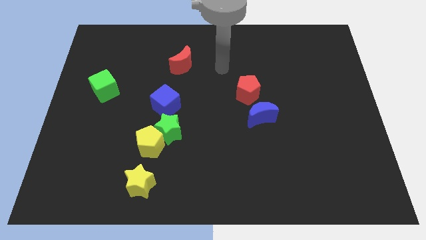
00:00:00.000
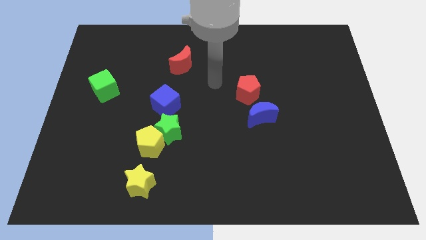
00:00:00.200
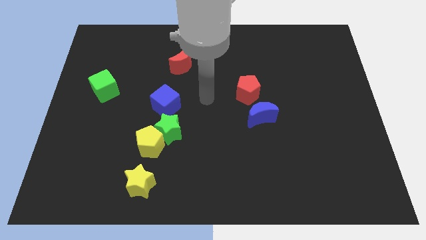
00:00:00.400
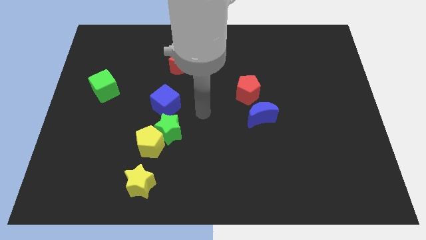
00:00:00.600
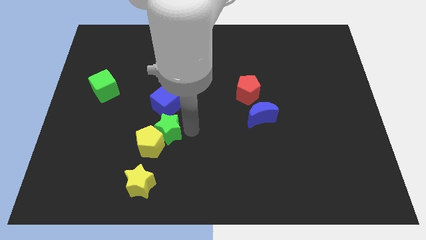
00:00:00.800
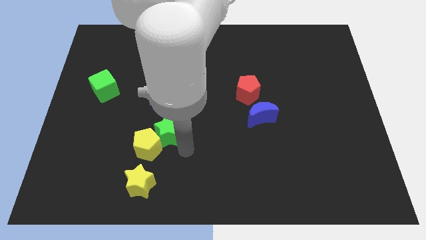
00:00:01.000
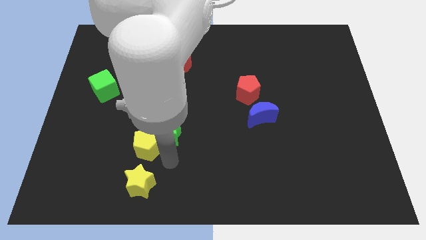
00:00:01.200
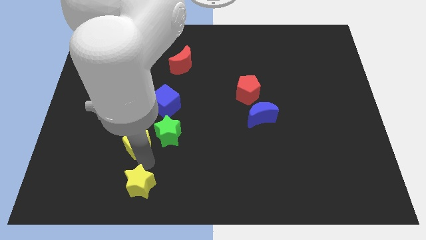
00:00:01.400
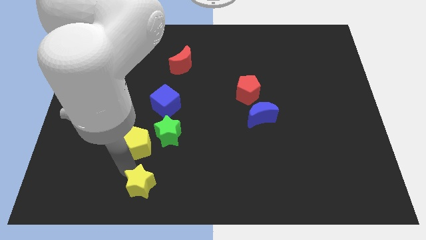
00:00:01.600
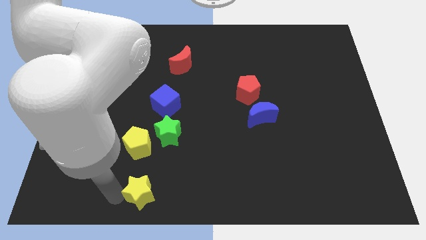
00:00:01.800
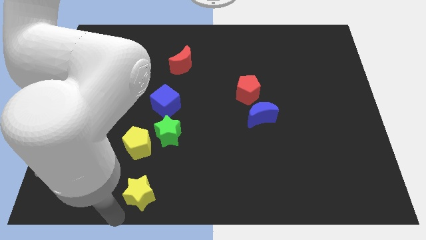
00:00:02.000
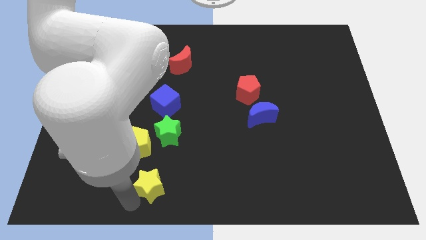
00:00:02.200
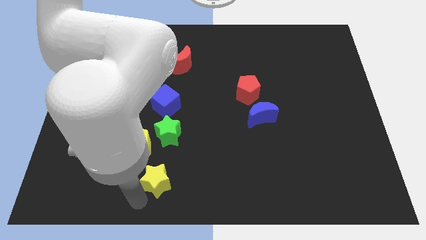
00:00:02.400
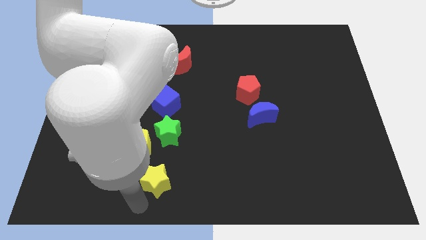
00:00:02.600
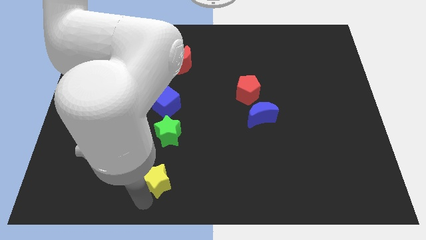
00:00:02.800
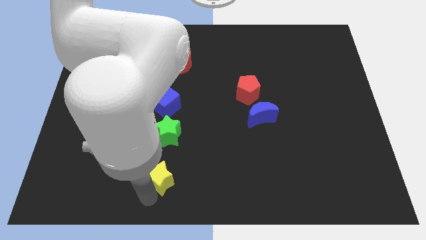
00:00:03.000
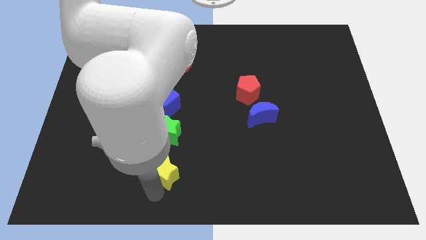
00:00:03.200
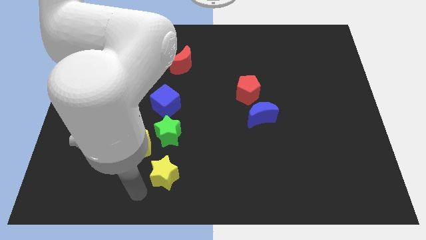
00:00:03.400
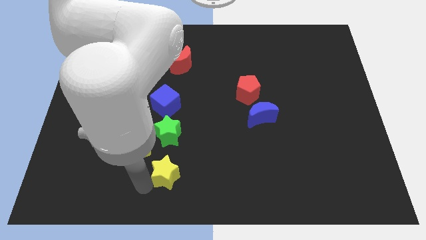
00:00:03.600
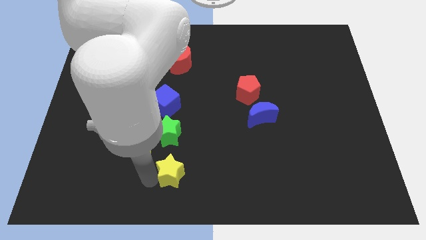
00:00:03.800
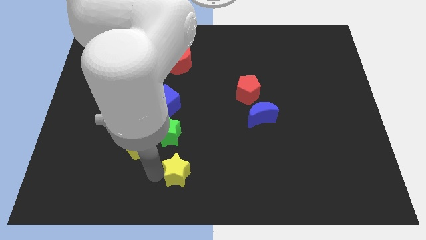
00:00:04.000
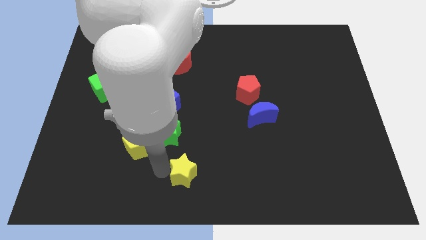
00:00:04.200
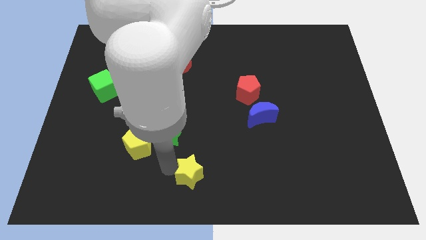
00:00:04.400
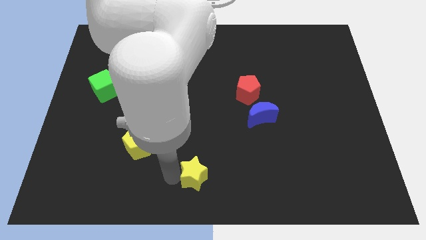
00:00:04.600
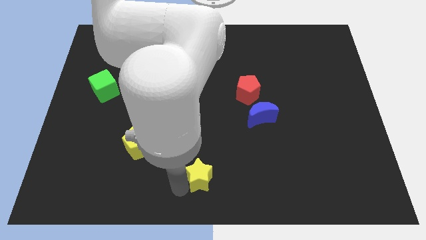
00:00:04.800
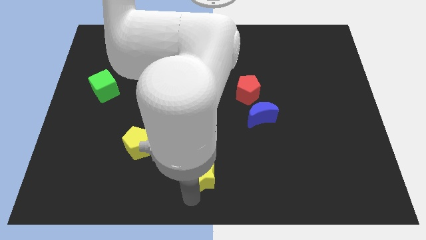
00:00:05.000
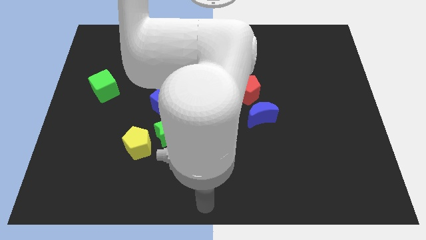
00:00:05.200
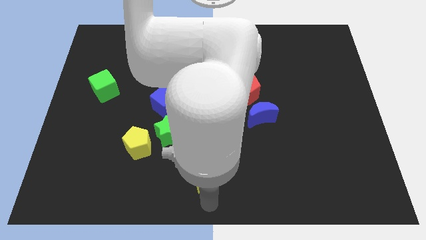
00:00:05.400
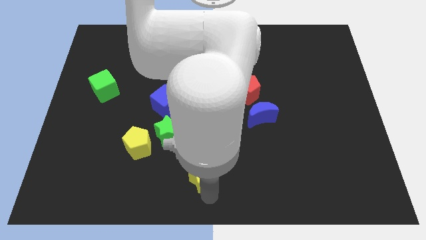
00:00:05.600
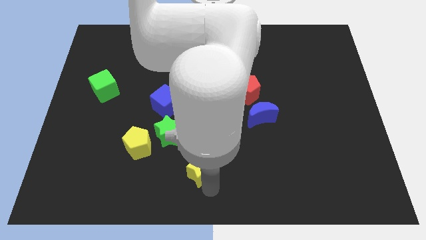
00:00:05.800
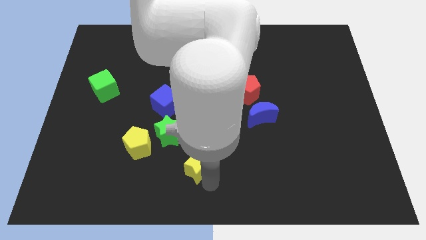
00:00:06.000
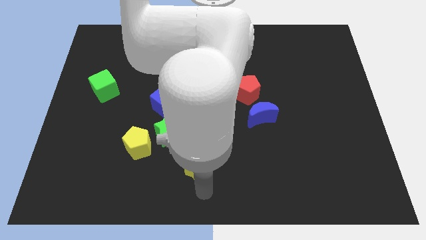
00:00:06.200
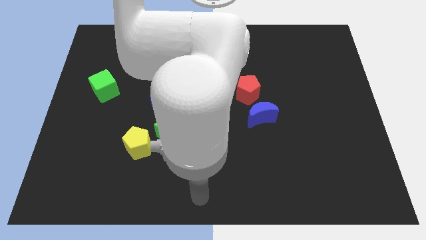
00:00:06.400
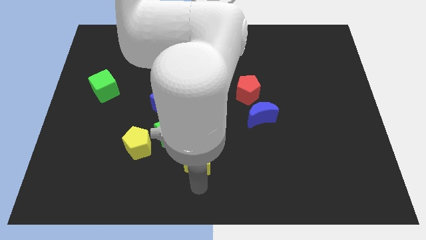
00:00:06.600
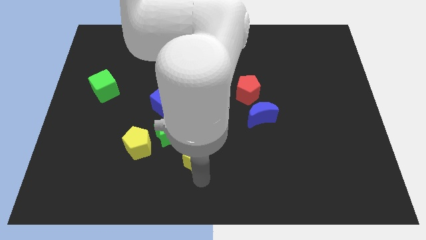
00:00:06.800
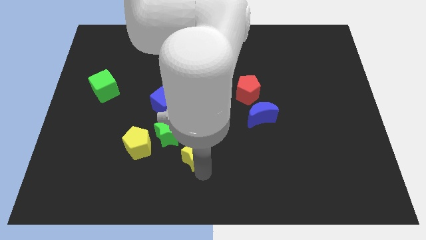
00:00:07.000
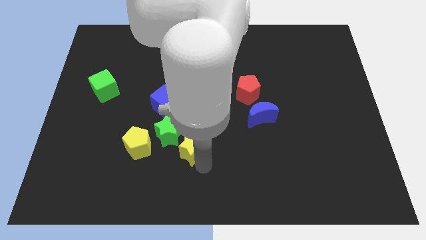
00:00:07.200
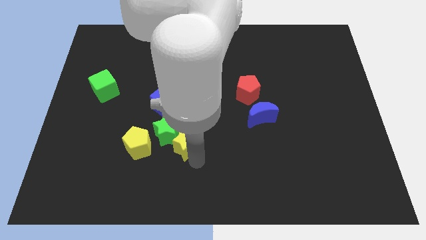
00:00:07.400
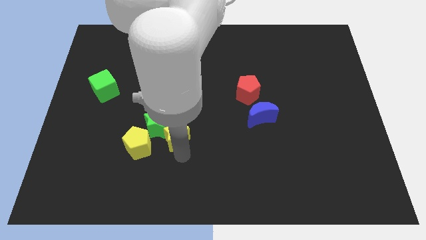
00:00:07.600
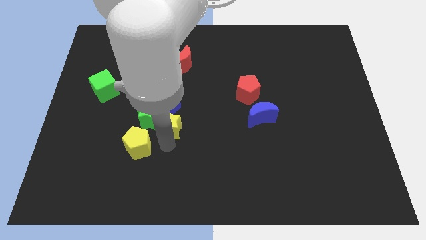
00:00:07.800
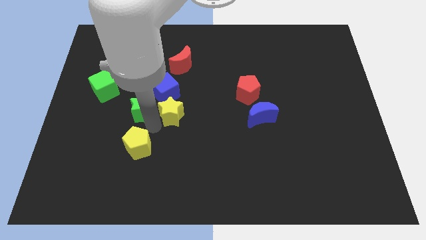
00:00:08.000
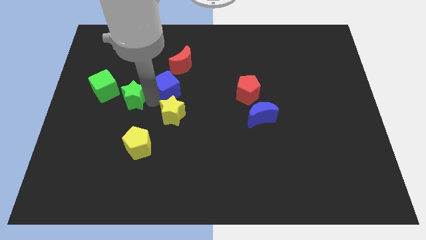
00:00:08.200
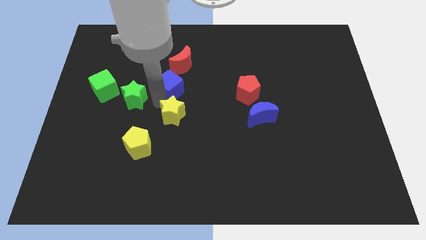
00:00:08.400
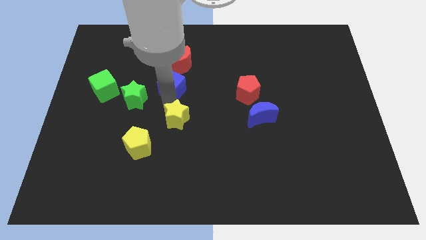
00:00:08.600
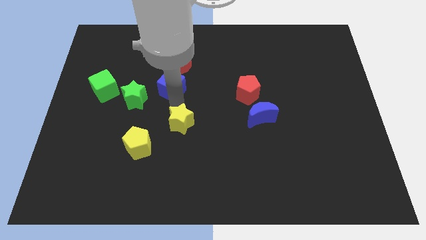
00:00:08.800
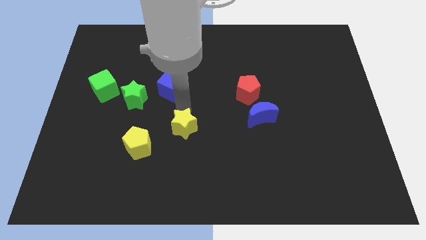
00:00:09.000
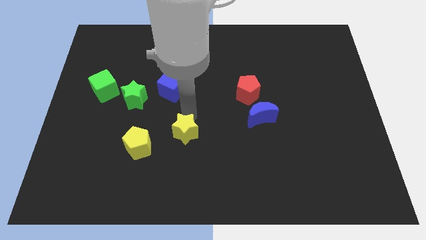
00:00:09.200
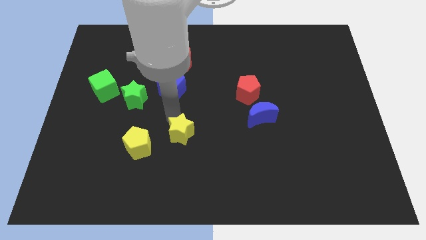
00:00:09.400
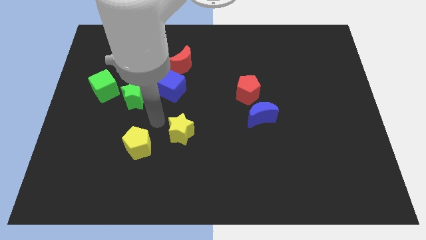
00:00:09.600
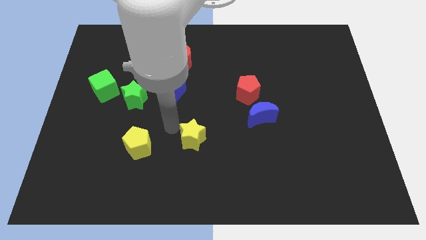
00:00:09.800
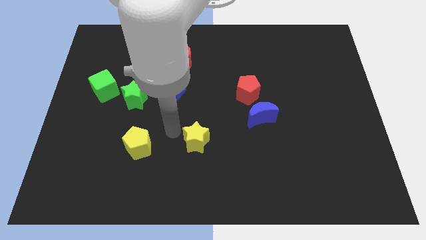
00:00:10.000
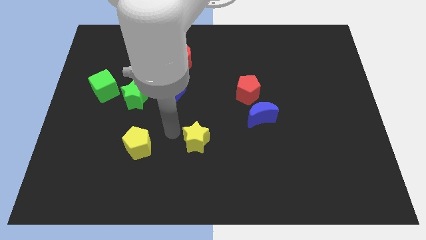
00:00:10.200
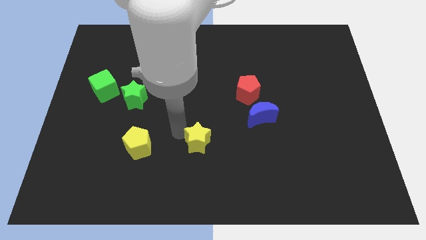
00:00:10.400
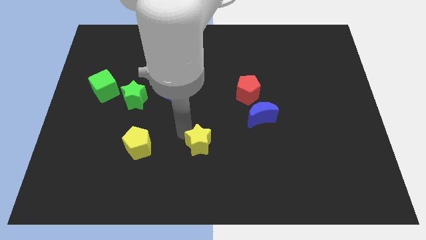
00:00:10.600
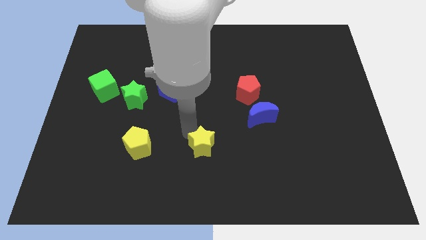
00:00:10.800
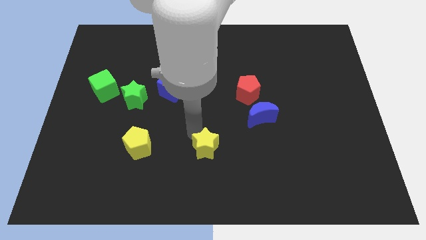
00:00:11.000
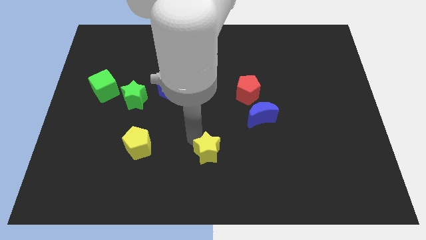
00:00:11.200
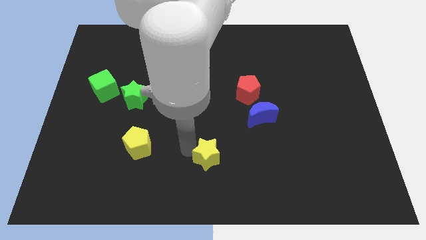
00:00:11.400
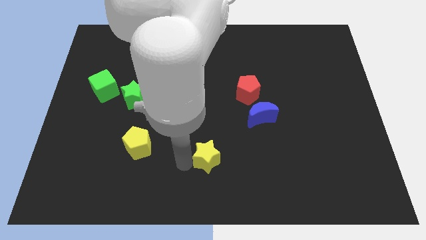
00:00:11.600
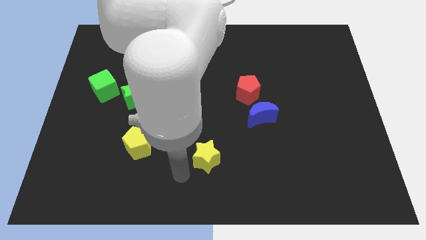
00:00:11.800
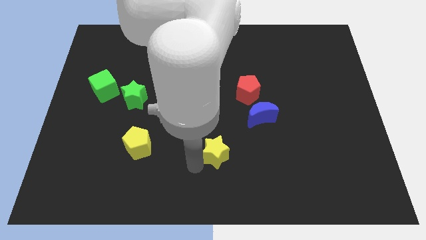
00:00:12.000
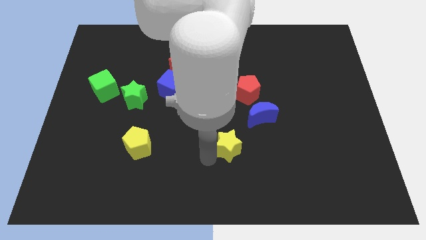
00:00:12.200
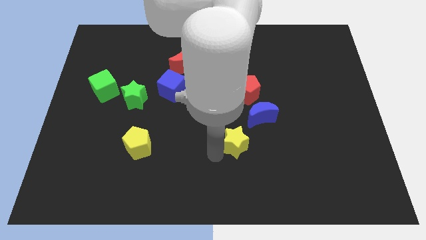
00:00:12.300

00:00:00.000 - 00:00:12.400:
put the yellow star to the bottom of the red pentagon

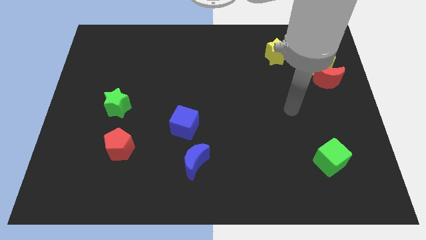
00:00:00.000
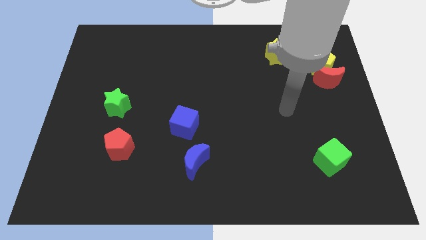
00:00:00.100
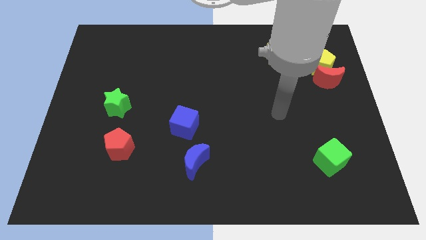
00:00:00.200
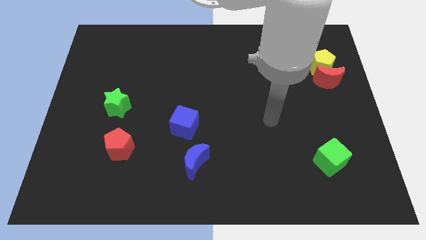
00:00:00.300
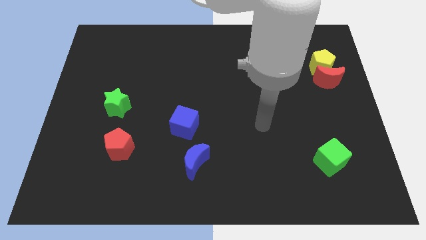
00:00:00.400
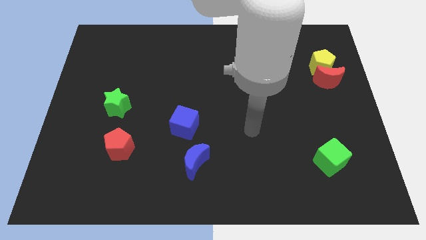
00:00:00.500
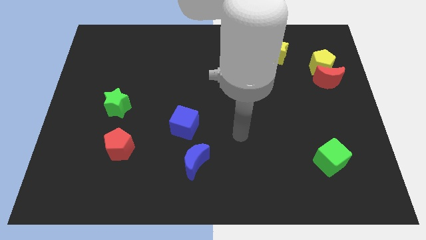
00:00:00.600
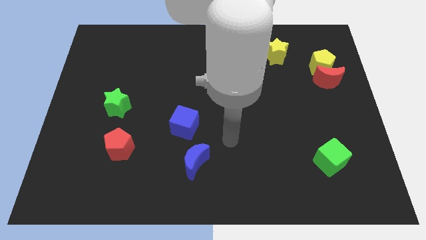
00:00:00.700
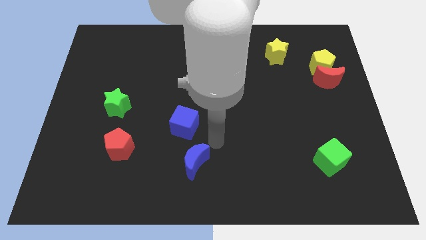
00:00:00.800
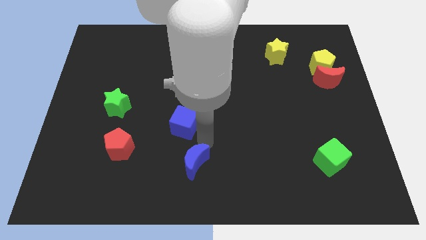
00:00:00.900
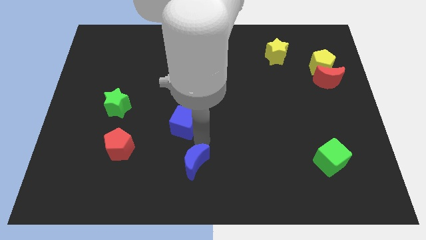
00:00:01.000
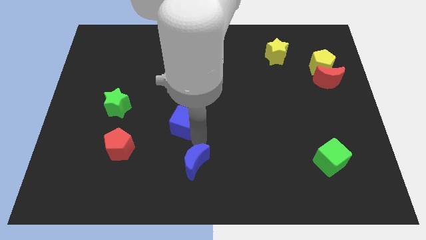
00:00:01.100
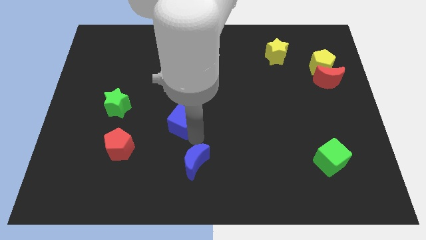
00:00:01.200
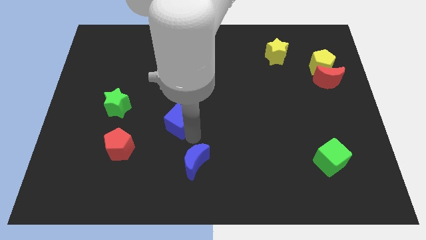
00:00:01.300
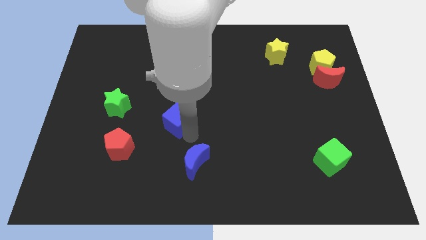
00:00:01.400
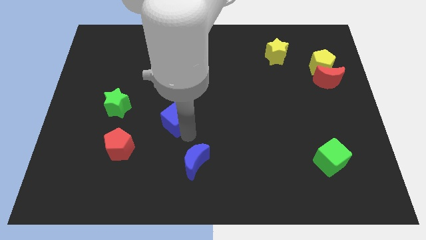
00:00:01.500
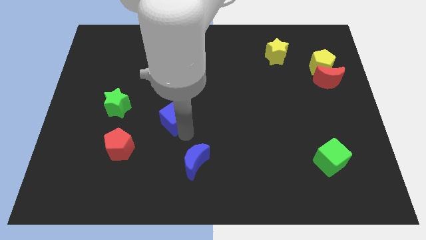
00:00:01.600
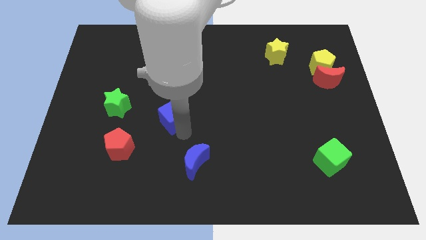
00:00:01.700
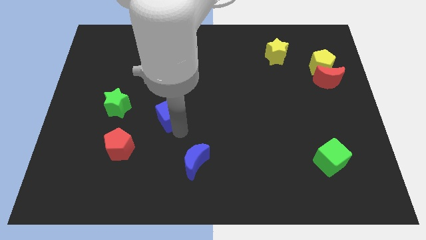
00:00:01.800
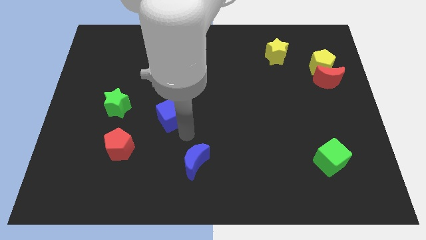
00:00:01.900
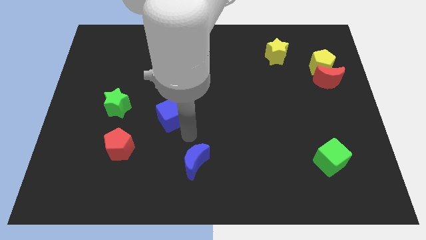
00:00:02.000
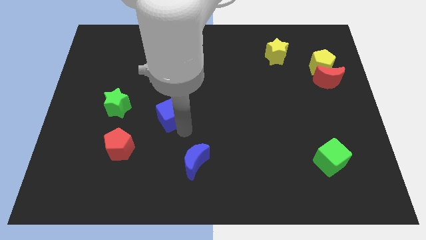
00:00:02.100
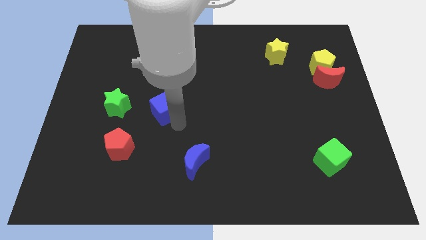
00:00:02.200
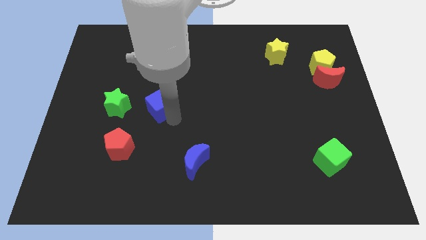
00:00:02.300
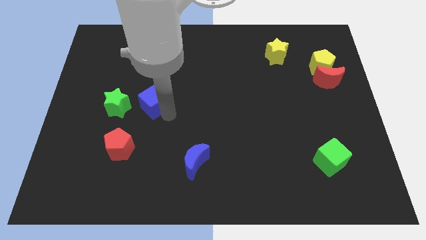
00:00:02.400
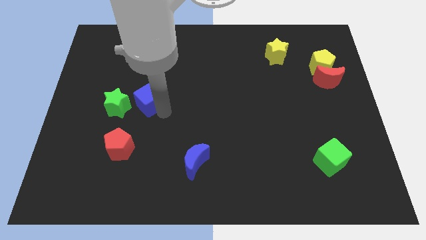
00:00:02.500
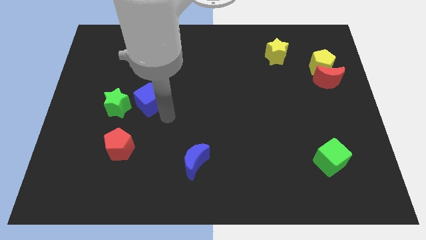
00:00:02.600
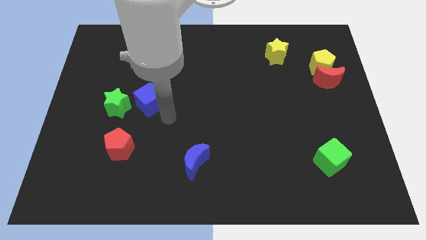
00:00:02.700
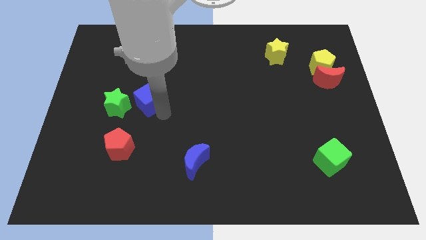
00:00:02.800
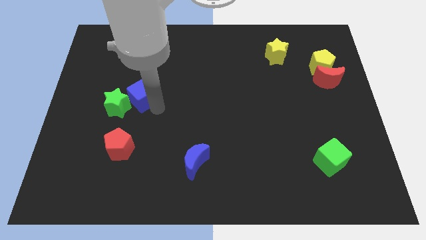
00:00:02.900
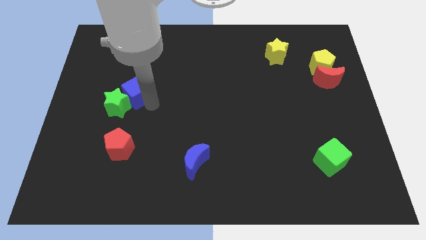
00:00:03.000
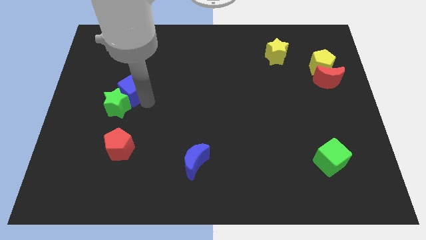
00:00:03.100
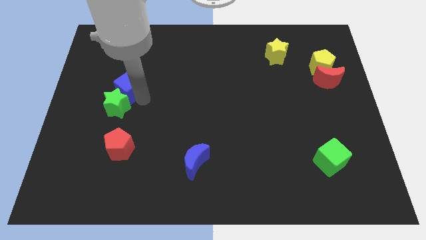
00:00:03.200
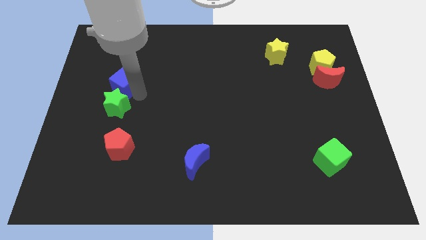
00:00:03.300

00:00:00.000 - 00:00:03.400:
push the blue cube to the top left of the green star
